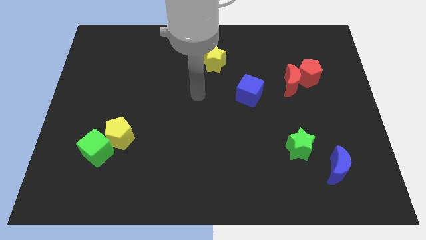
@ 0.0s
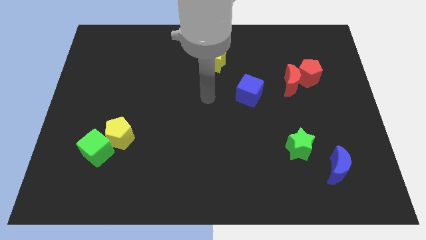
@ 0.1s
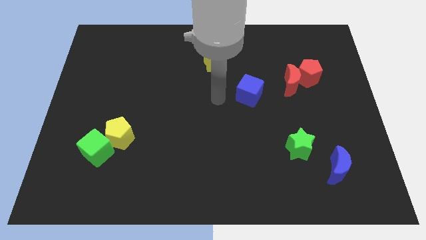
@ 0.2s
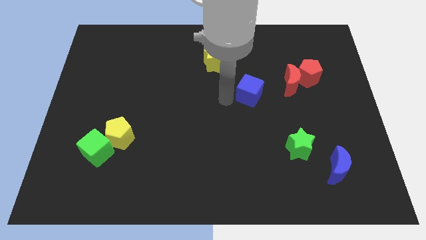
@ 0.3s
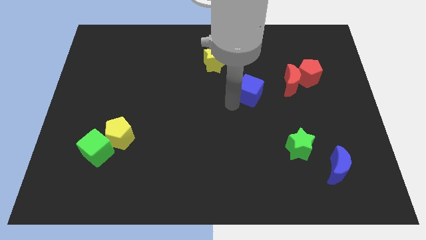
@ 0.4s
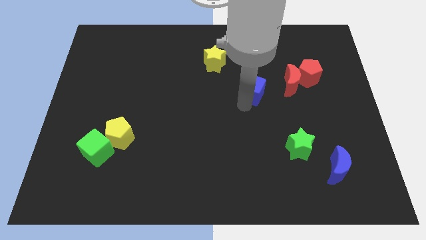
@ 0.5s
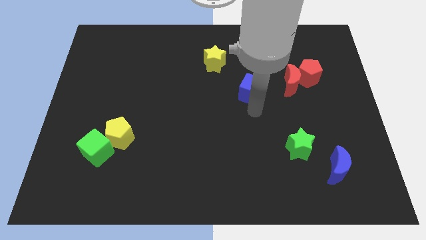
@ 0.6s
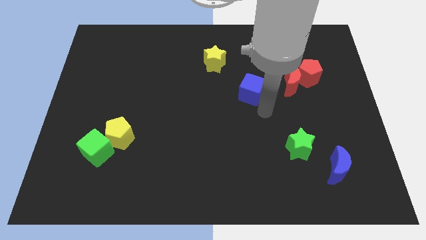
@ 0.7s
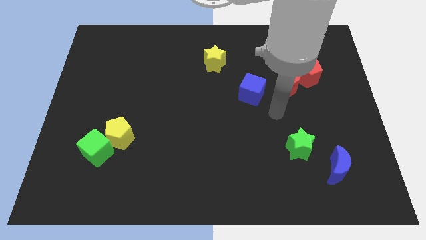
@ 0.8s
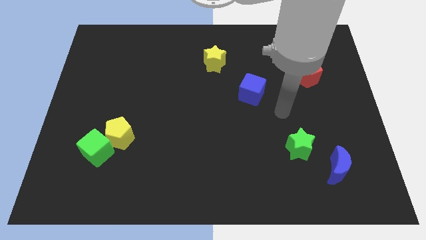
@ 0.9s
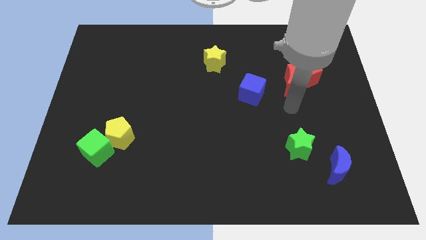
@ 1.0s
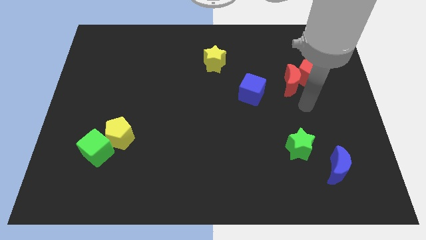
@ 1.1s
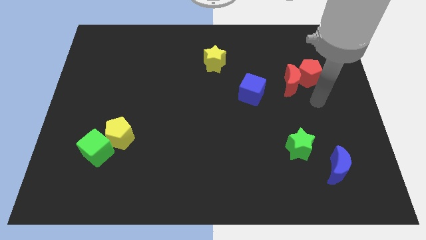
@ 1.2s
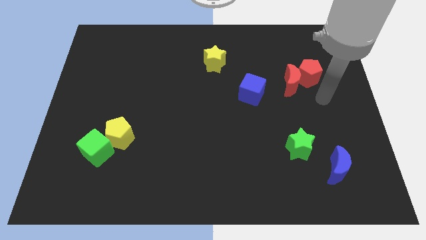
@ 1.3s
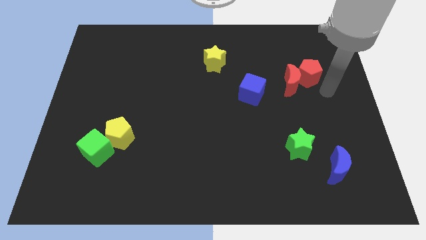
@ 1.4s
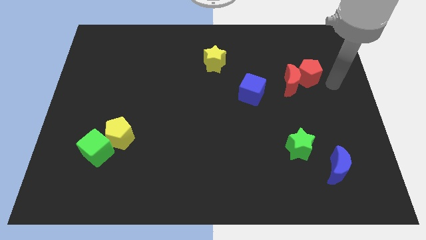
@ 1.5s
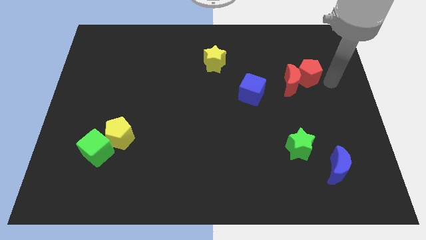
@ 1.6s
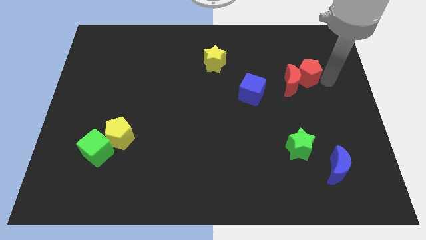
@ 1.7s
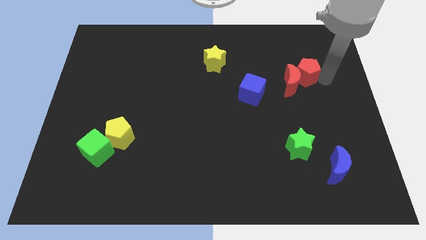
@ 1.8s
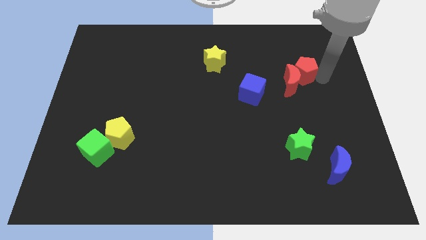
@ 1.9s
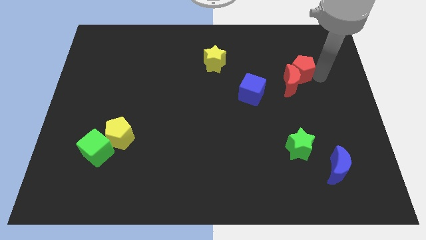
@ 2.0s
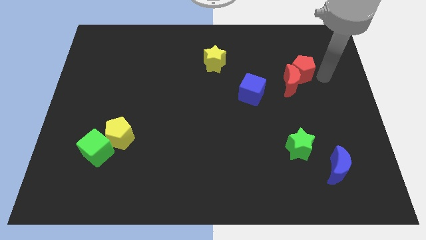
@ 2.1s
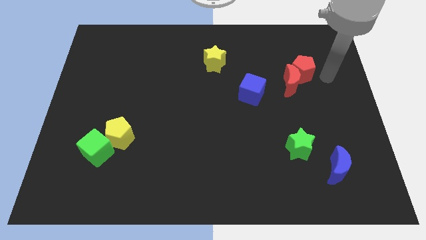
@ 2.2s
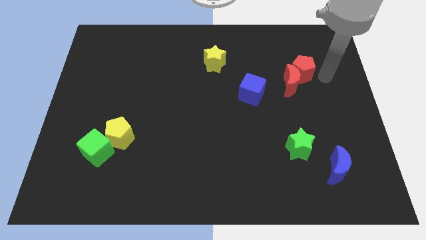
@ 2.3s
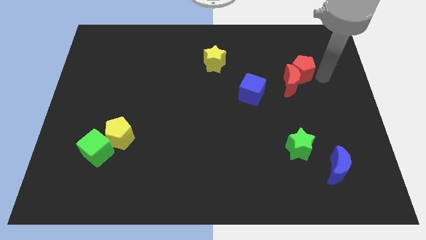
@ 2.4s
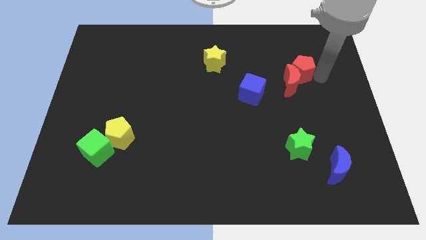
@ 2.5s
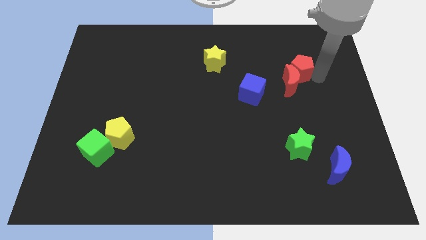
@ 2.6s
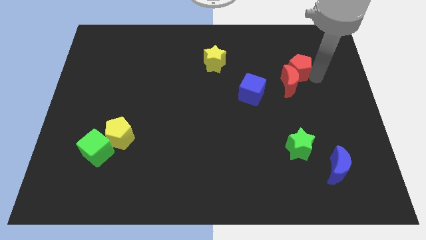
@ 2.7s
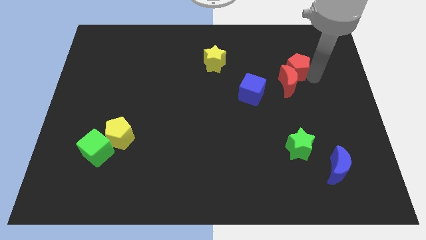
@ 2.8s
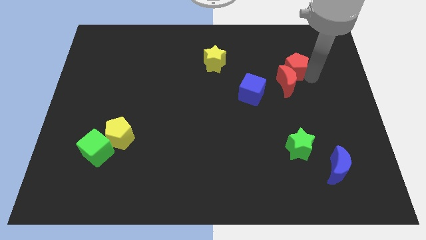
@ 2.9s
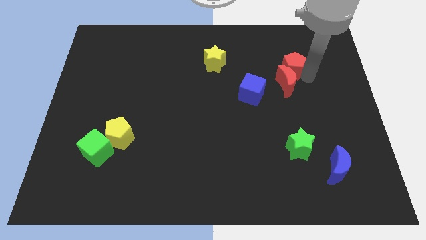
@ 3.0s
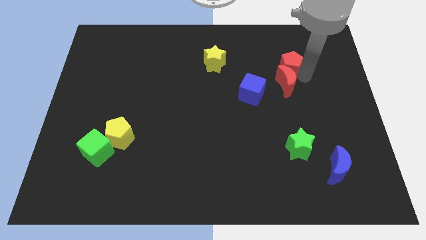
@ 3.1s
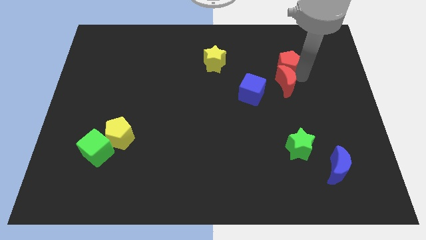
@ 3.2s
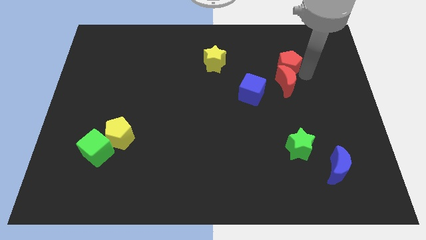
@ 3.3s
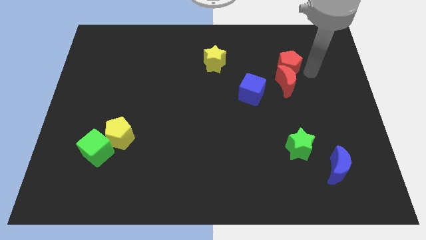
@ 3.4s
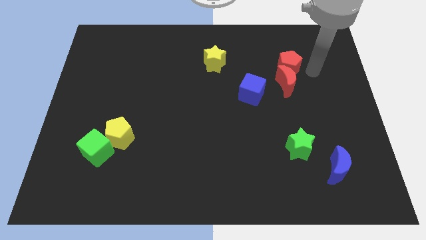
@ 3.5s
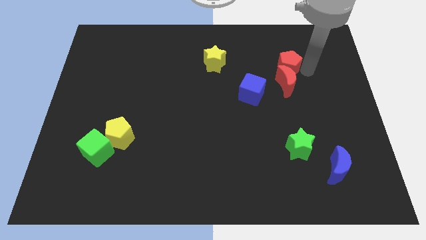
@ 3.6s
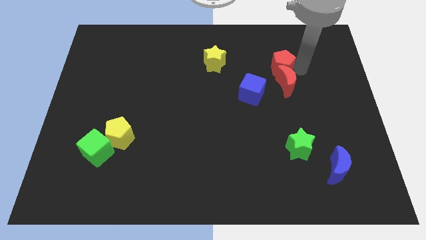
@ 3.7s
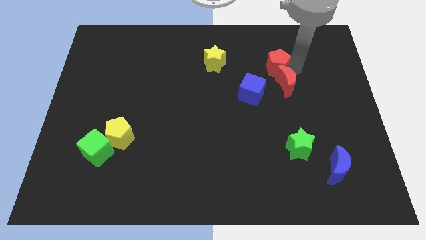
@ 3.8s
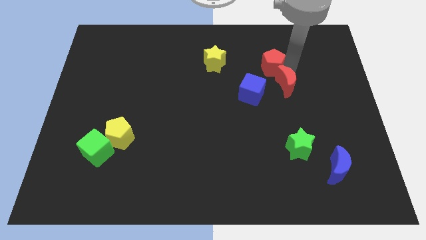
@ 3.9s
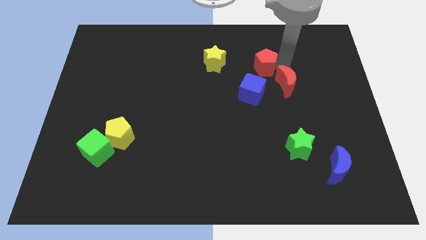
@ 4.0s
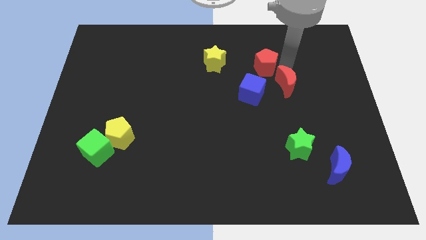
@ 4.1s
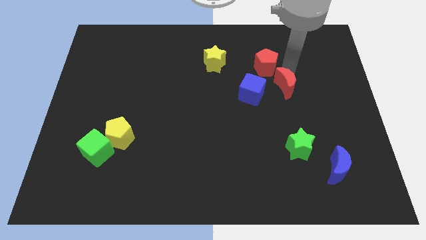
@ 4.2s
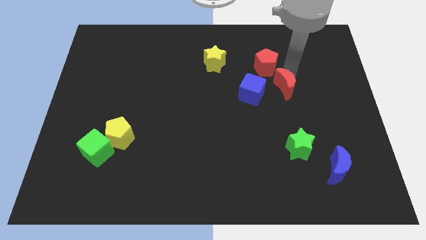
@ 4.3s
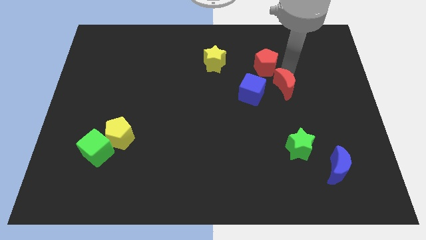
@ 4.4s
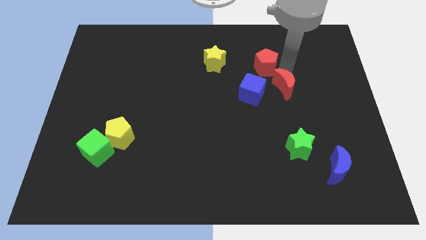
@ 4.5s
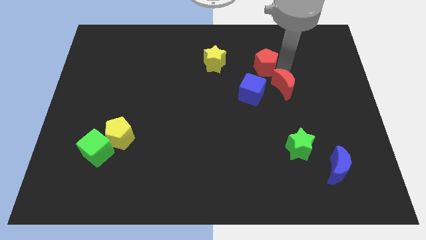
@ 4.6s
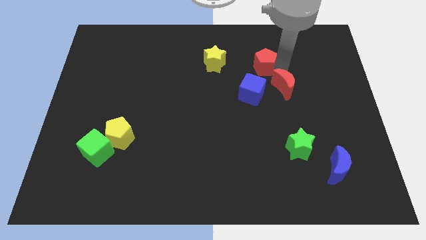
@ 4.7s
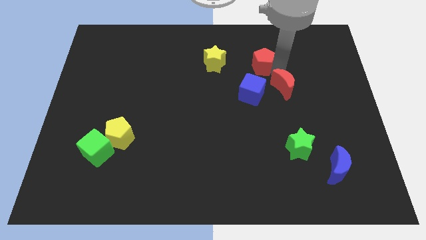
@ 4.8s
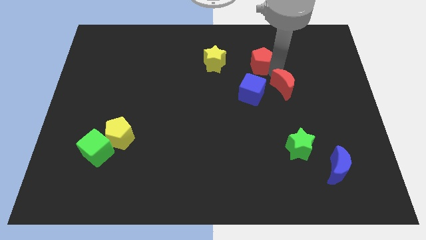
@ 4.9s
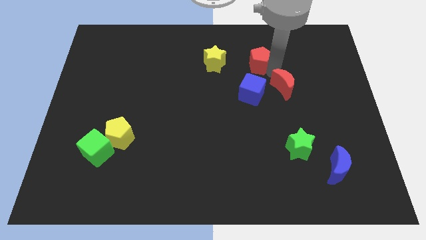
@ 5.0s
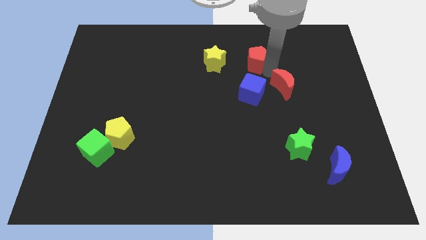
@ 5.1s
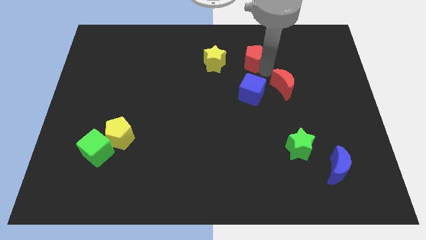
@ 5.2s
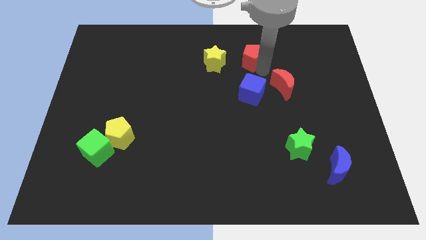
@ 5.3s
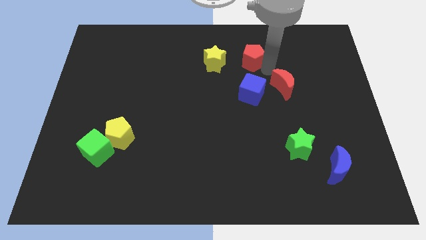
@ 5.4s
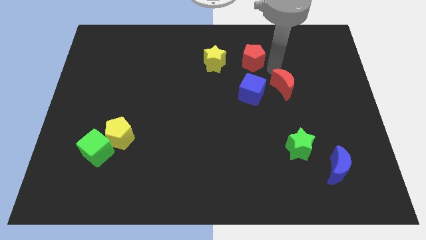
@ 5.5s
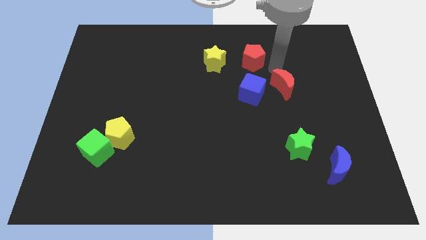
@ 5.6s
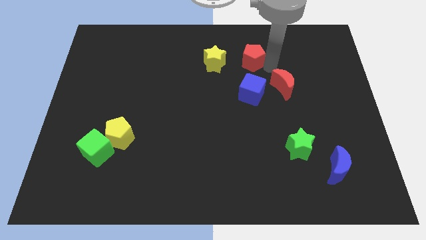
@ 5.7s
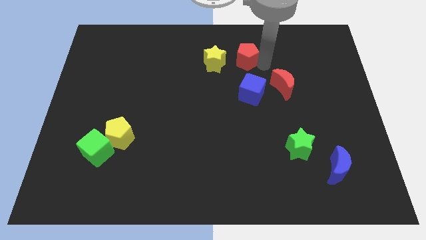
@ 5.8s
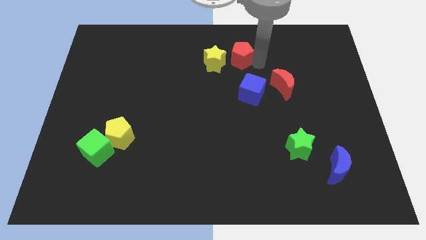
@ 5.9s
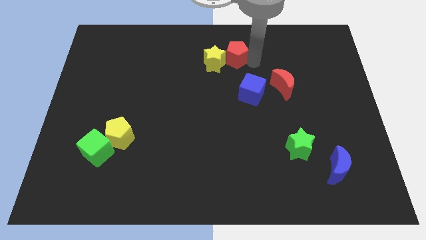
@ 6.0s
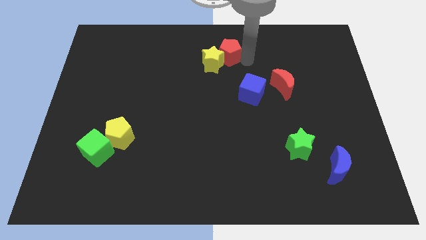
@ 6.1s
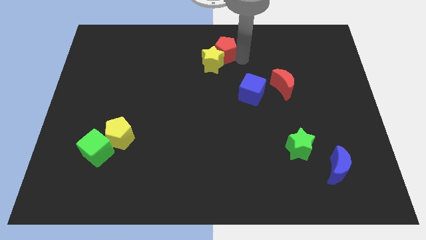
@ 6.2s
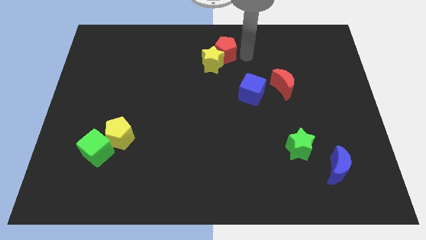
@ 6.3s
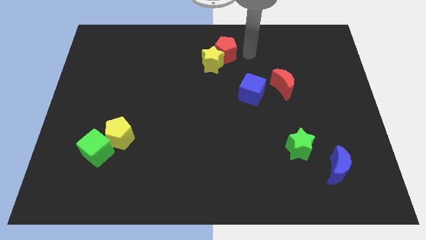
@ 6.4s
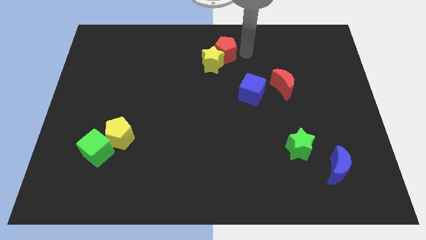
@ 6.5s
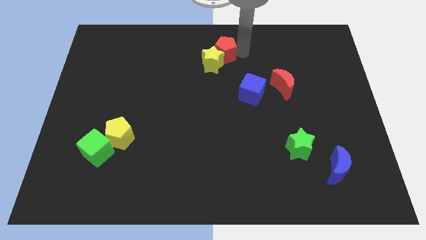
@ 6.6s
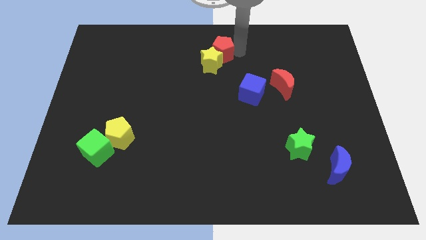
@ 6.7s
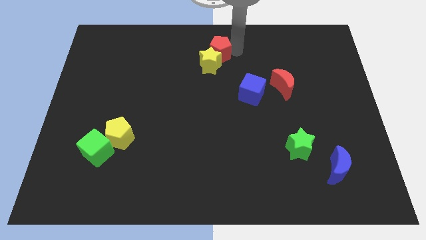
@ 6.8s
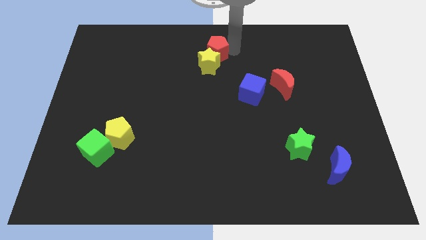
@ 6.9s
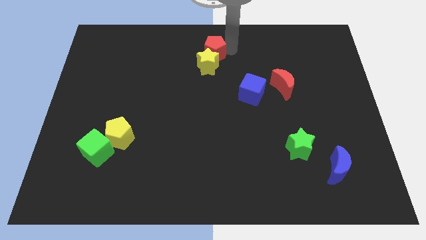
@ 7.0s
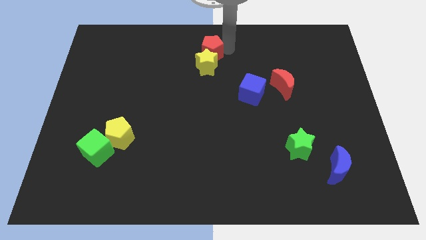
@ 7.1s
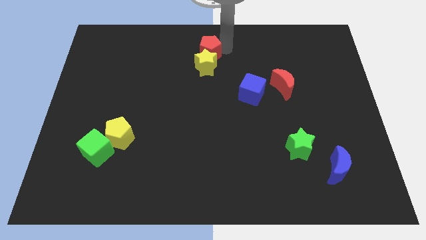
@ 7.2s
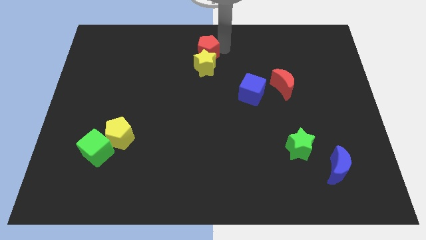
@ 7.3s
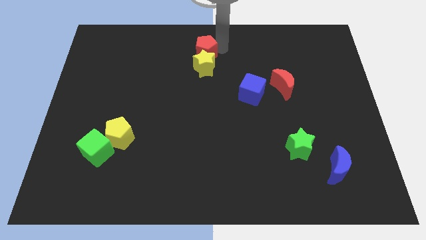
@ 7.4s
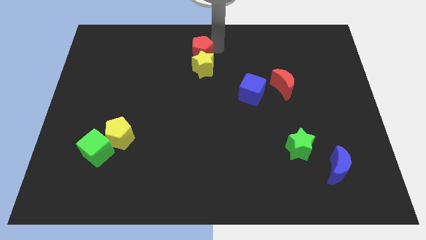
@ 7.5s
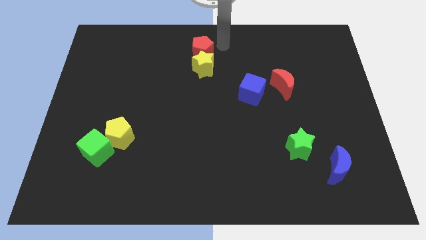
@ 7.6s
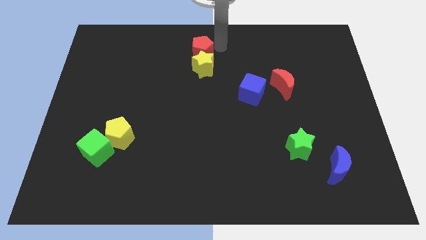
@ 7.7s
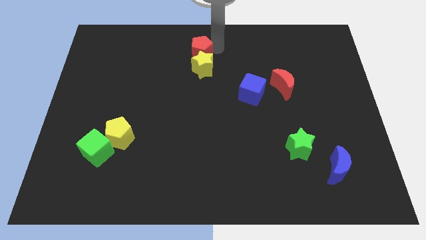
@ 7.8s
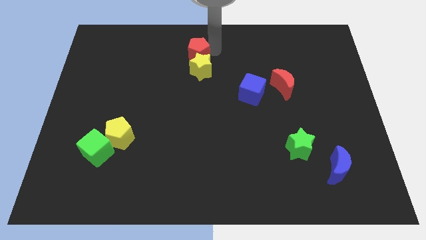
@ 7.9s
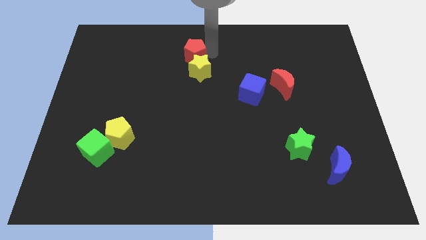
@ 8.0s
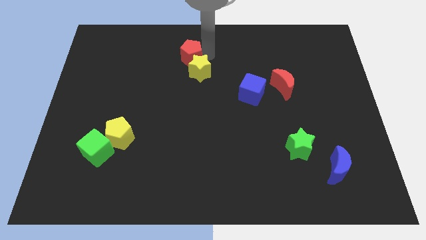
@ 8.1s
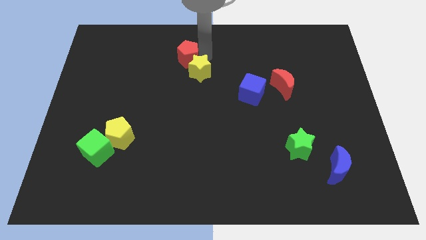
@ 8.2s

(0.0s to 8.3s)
move the red pentagon to the left of the yellow star
